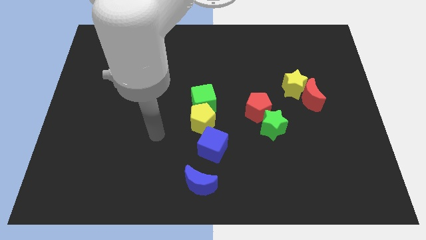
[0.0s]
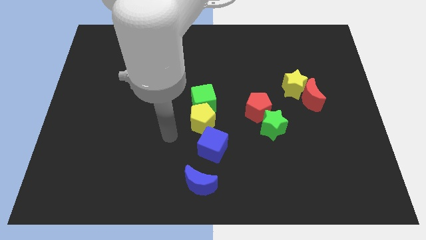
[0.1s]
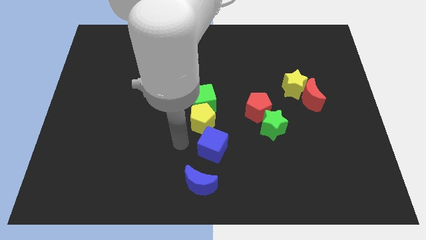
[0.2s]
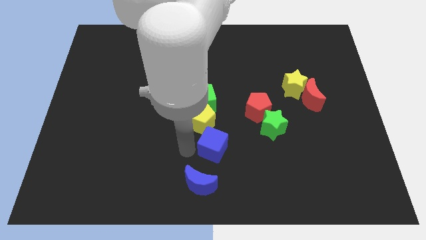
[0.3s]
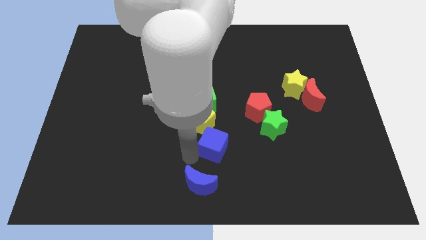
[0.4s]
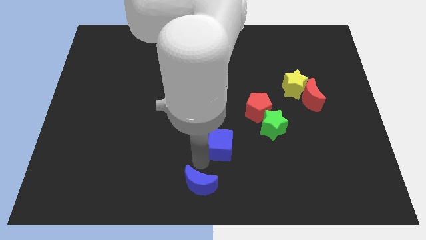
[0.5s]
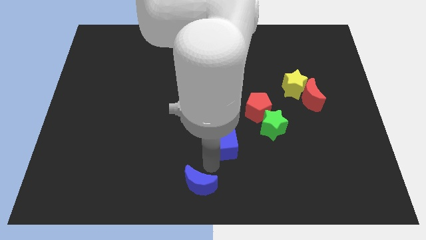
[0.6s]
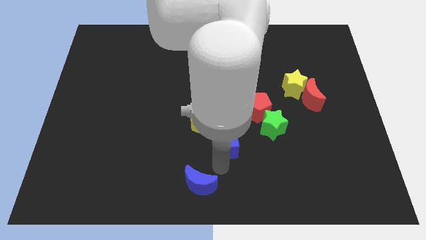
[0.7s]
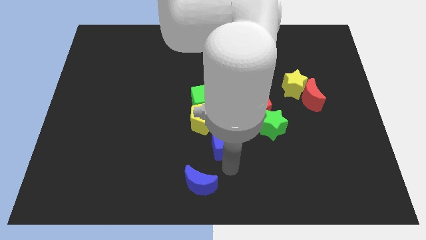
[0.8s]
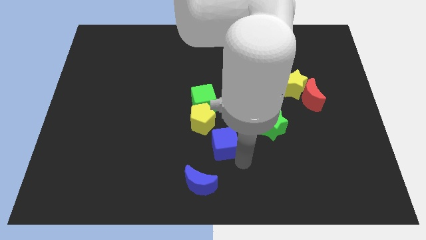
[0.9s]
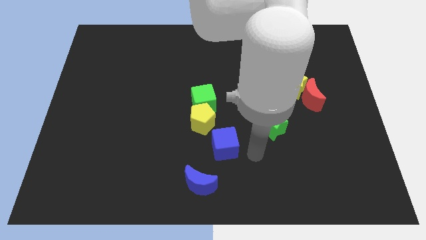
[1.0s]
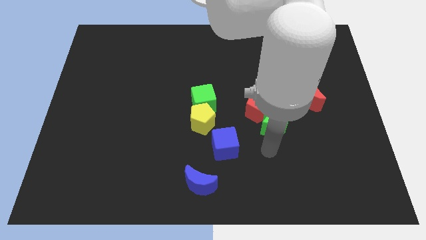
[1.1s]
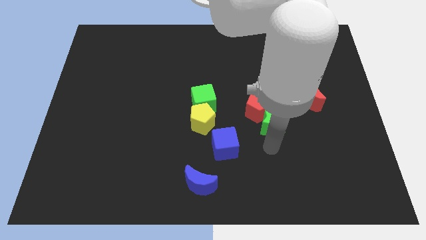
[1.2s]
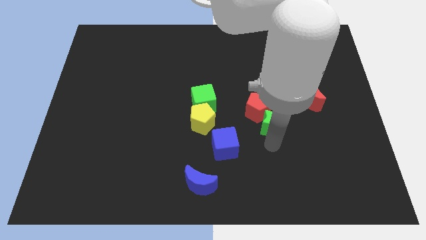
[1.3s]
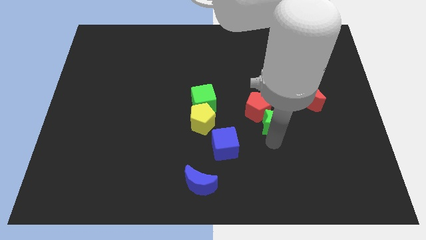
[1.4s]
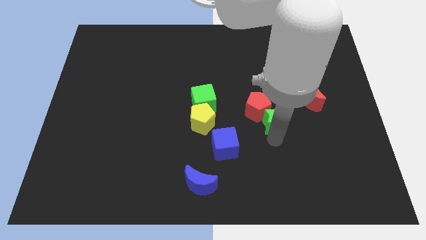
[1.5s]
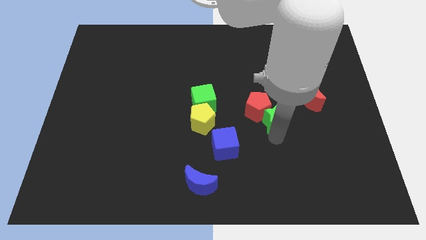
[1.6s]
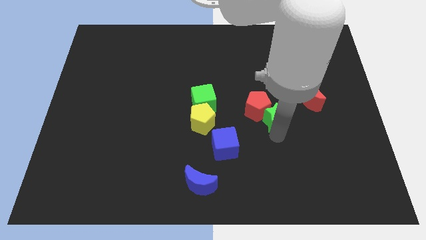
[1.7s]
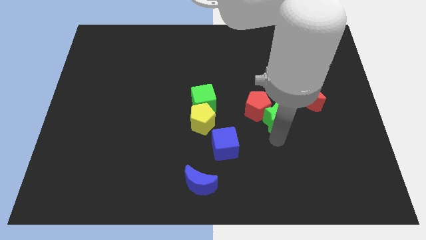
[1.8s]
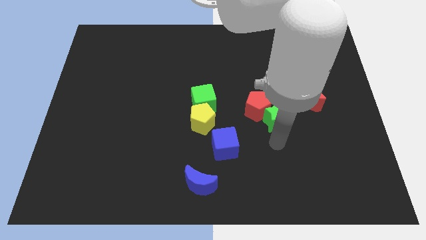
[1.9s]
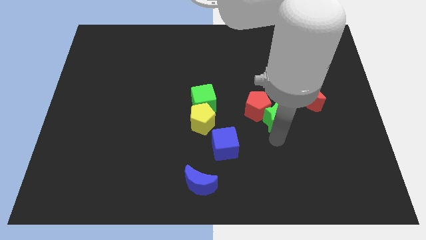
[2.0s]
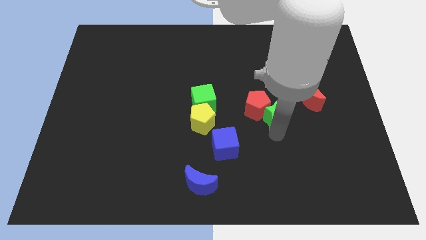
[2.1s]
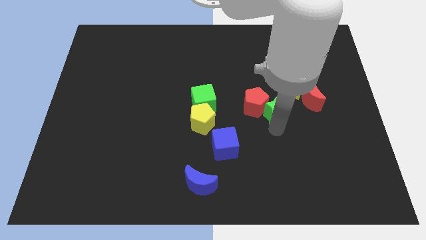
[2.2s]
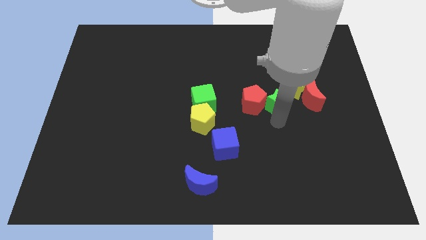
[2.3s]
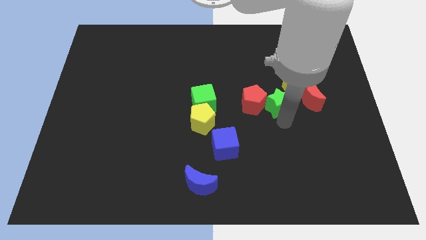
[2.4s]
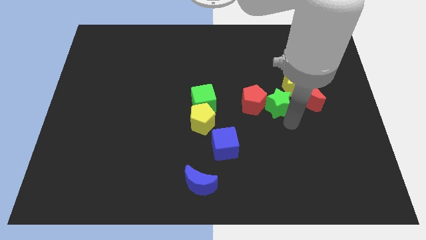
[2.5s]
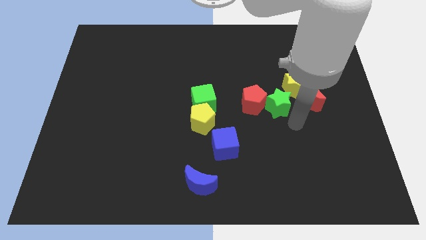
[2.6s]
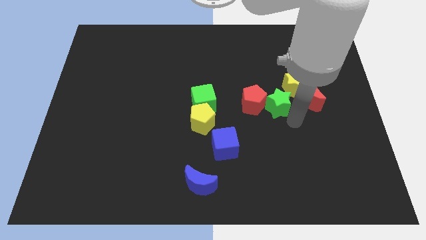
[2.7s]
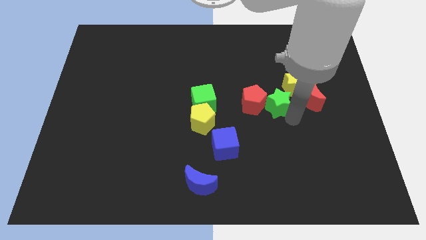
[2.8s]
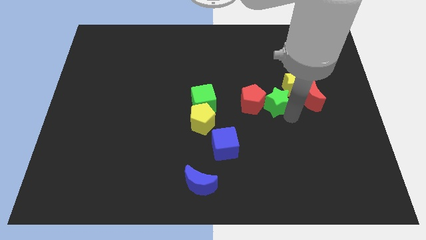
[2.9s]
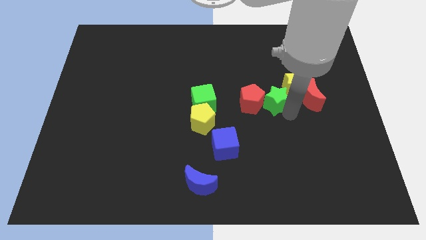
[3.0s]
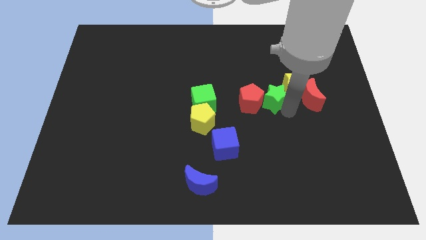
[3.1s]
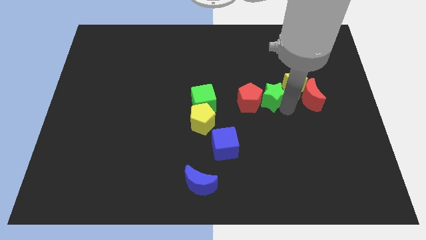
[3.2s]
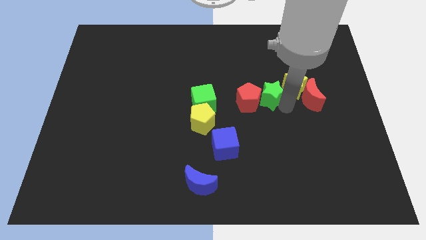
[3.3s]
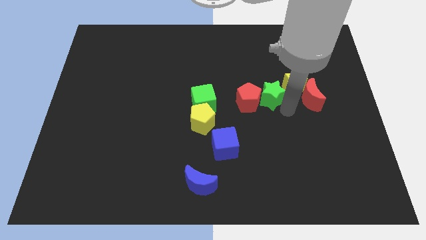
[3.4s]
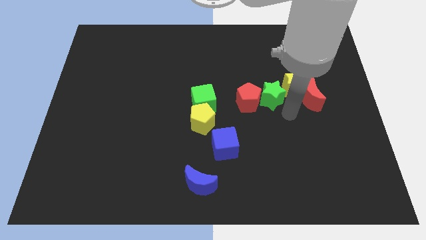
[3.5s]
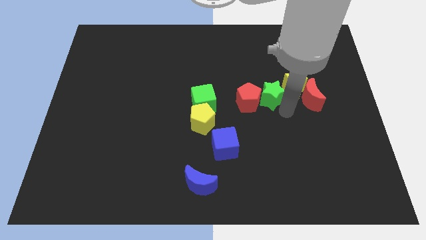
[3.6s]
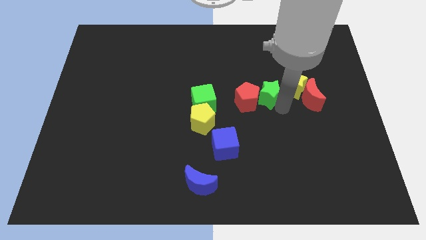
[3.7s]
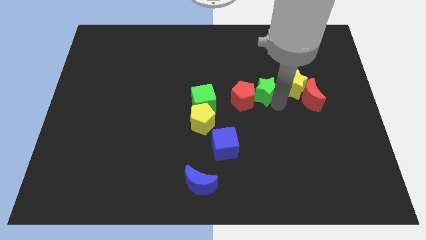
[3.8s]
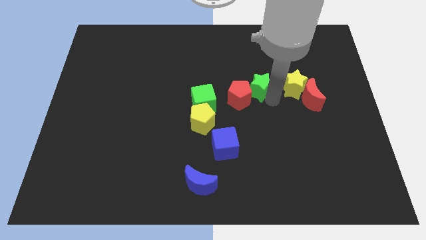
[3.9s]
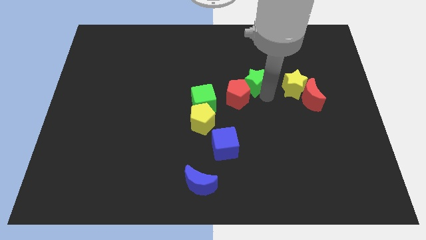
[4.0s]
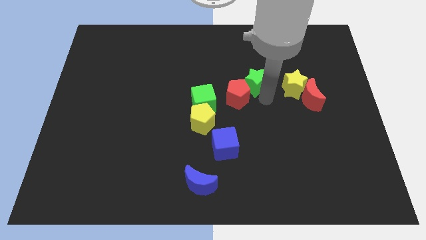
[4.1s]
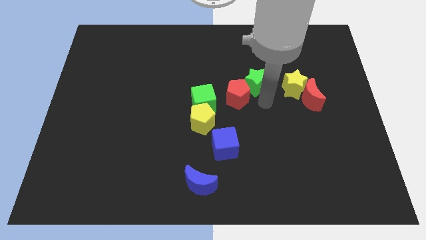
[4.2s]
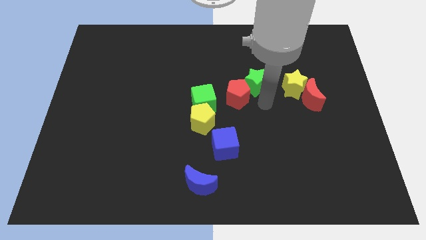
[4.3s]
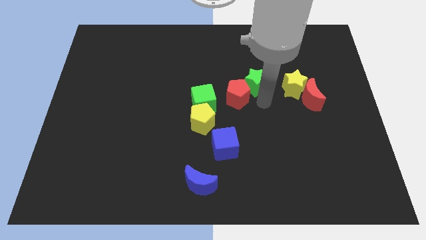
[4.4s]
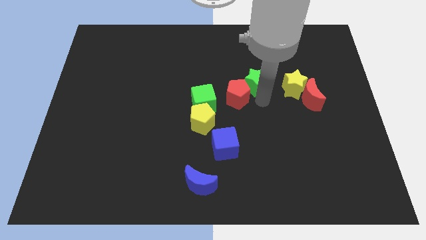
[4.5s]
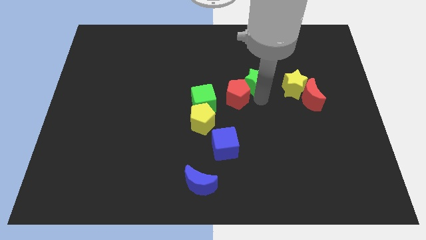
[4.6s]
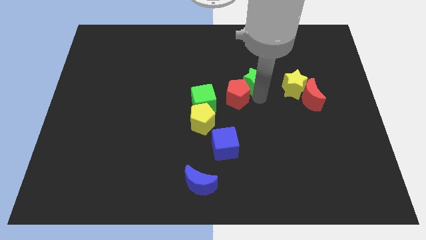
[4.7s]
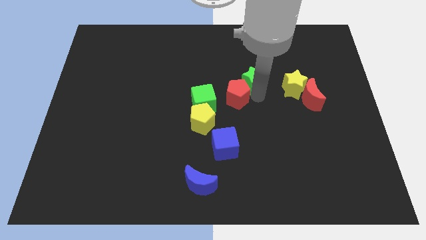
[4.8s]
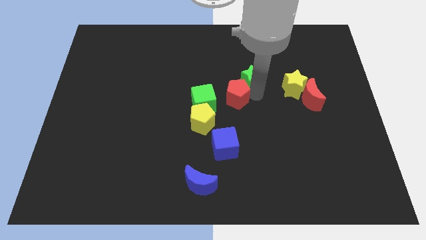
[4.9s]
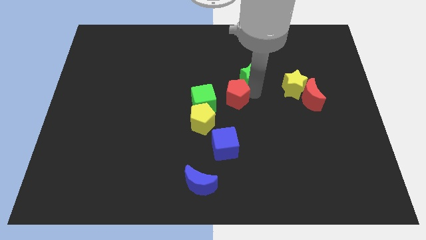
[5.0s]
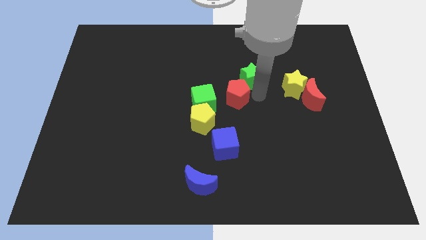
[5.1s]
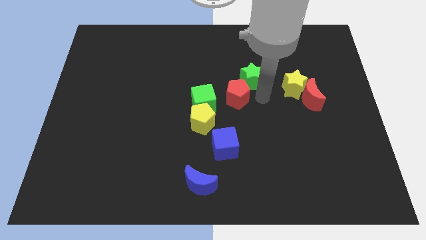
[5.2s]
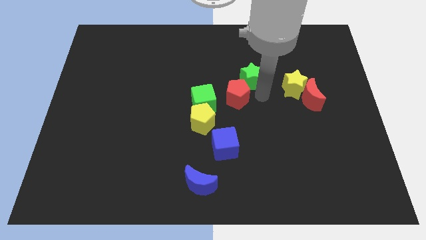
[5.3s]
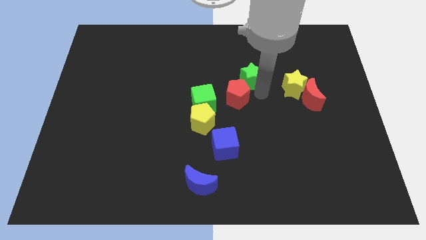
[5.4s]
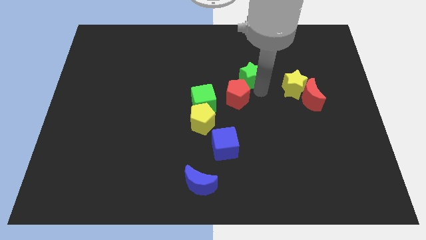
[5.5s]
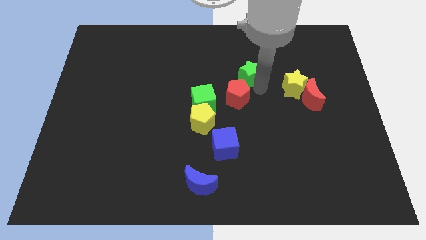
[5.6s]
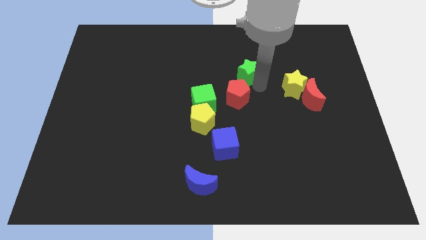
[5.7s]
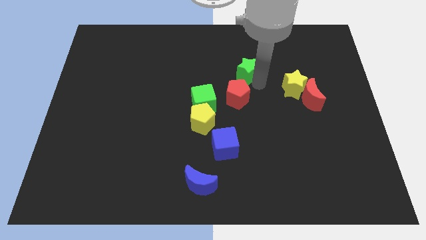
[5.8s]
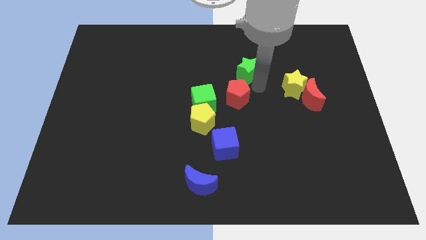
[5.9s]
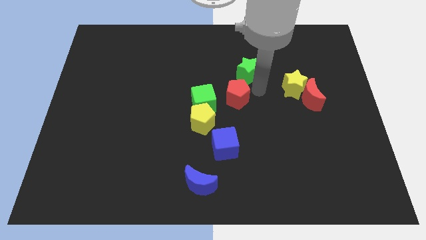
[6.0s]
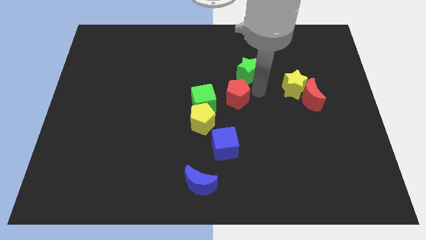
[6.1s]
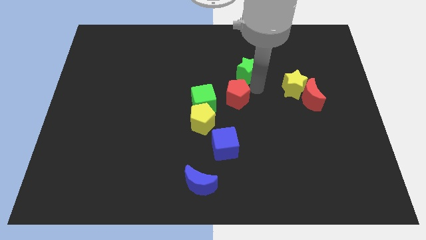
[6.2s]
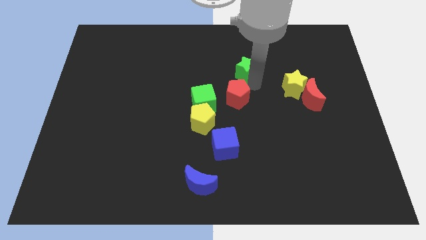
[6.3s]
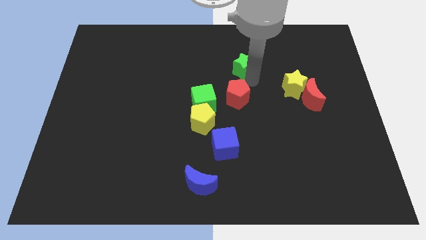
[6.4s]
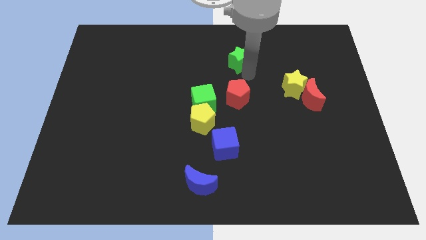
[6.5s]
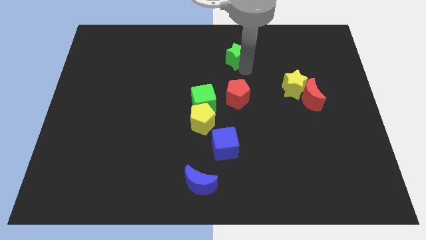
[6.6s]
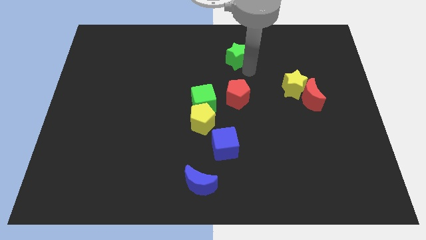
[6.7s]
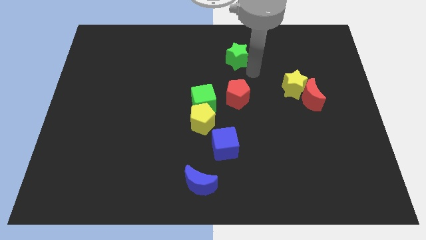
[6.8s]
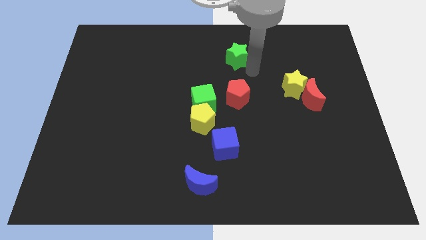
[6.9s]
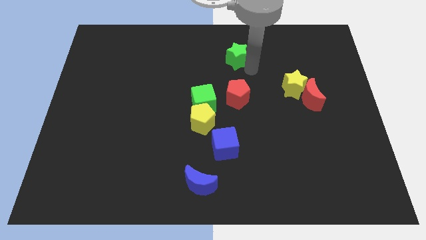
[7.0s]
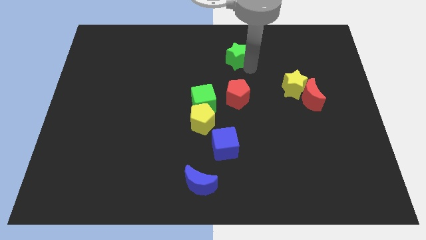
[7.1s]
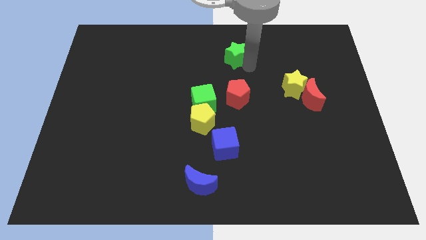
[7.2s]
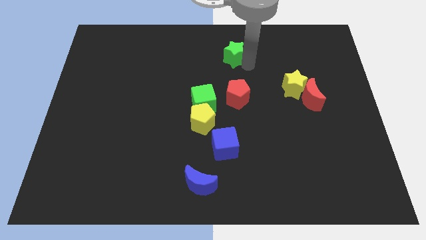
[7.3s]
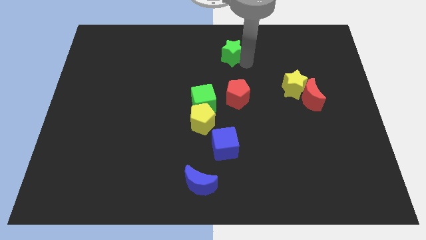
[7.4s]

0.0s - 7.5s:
move the green star to the top

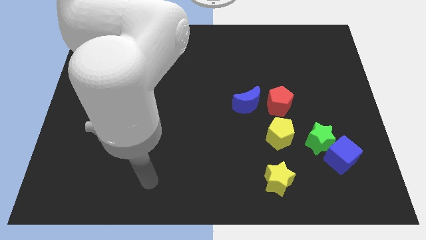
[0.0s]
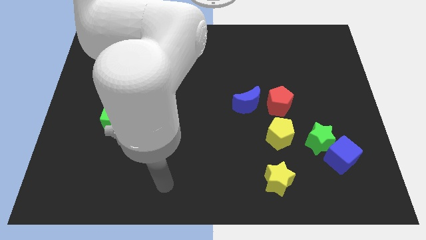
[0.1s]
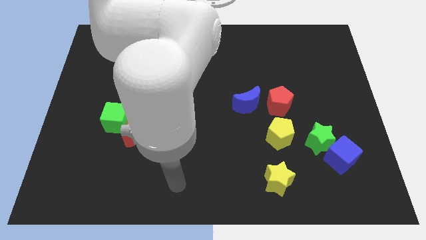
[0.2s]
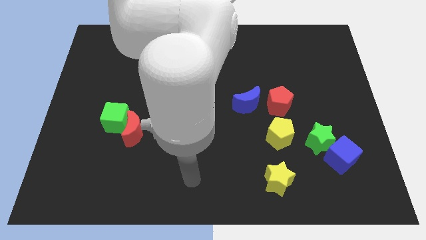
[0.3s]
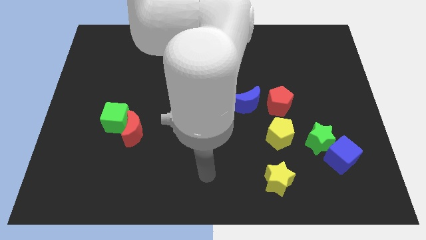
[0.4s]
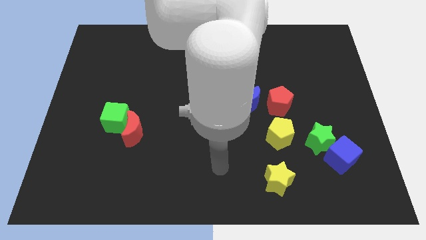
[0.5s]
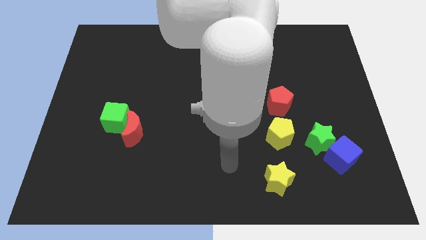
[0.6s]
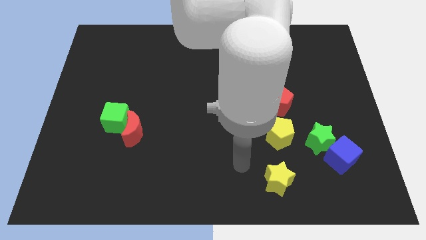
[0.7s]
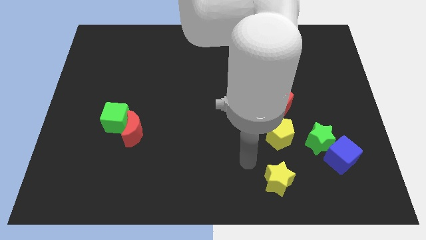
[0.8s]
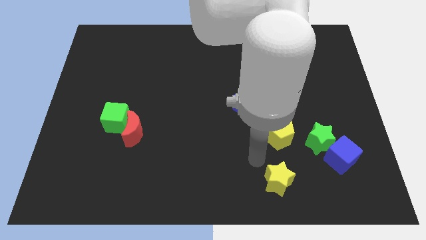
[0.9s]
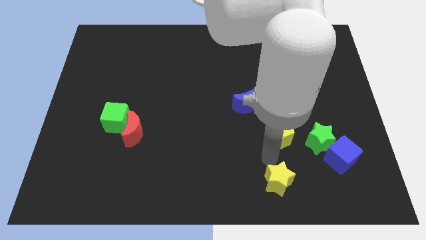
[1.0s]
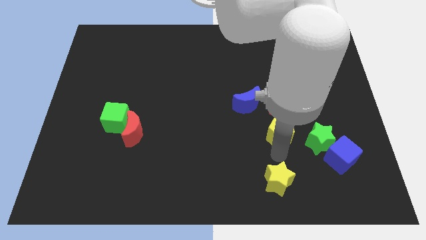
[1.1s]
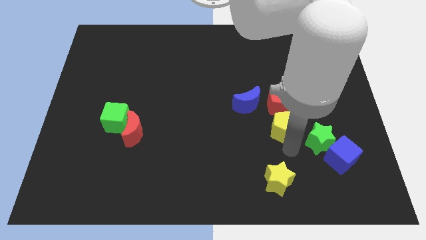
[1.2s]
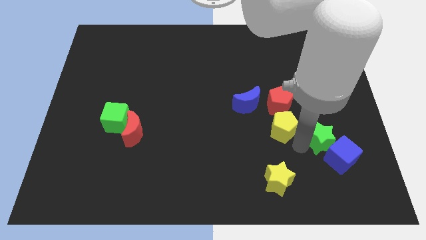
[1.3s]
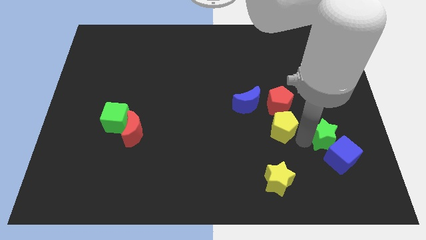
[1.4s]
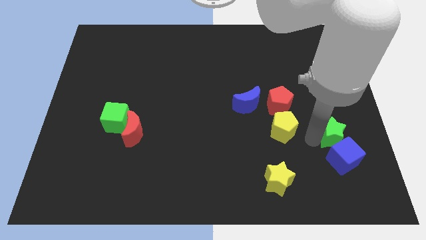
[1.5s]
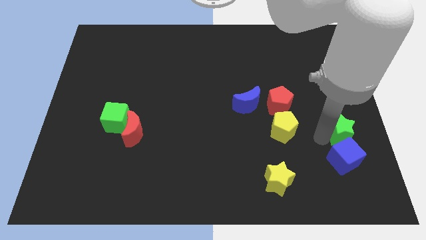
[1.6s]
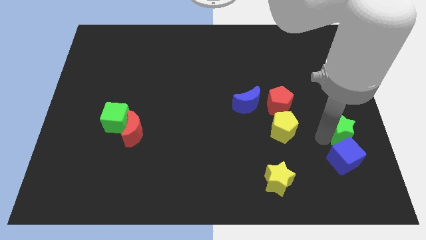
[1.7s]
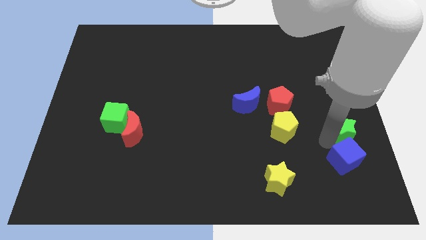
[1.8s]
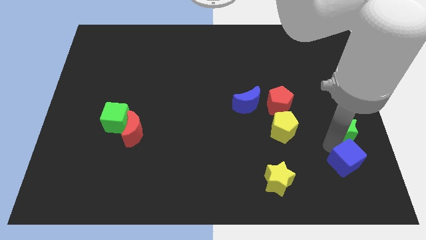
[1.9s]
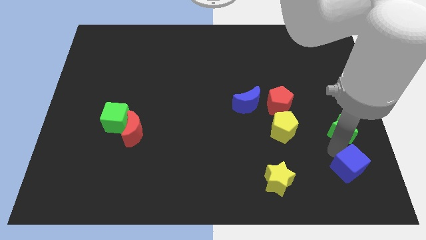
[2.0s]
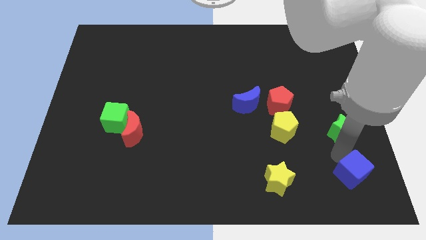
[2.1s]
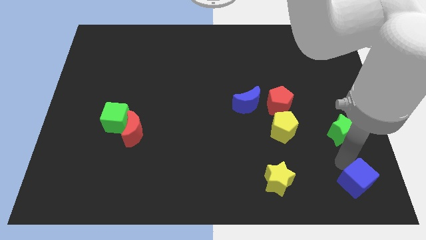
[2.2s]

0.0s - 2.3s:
slide the blue cube to the bottom right
